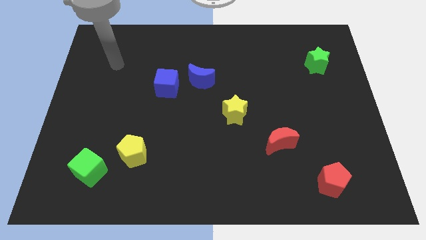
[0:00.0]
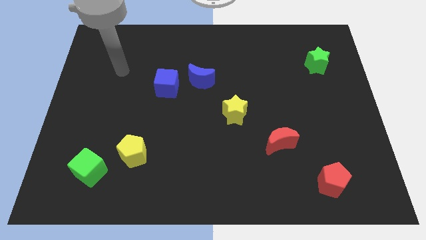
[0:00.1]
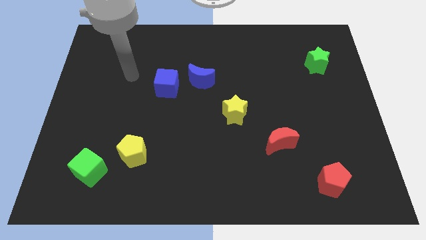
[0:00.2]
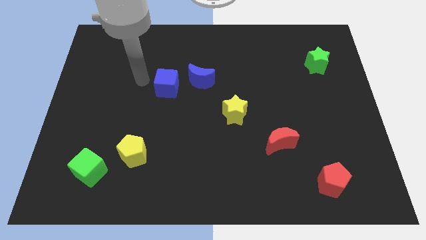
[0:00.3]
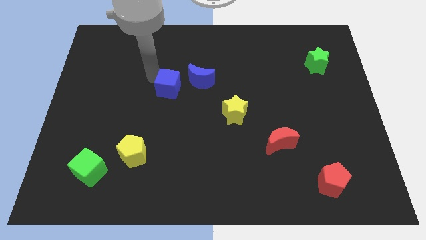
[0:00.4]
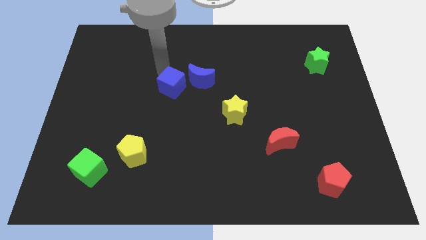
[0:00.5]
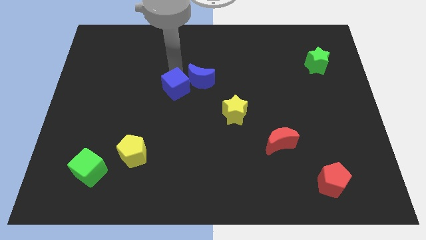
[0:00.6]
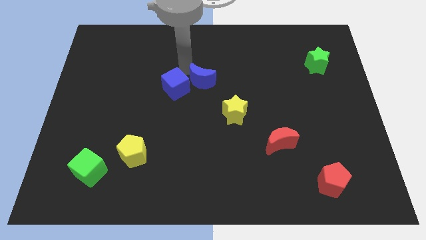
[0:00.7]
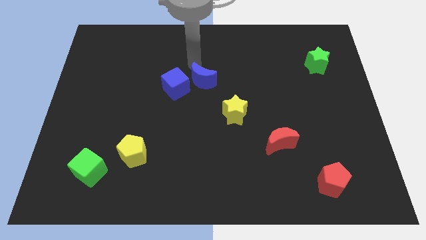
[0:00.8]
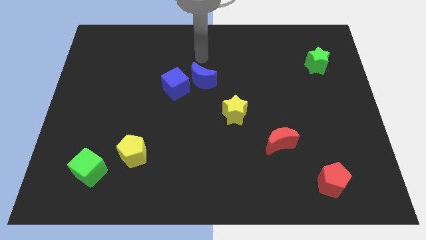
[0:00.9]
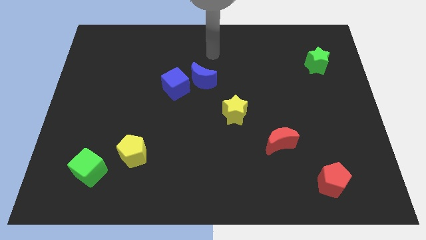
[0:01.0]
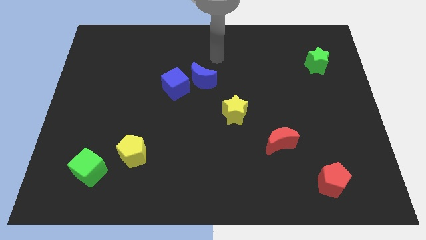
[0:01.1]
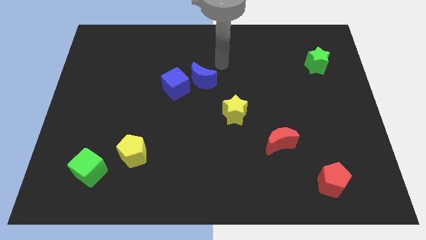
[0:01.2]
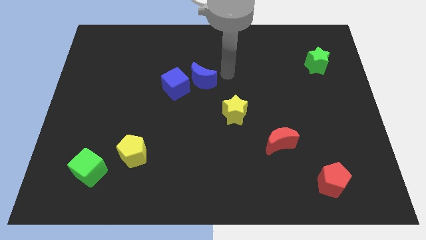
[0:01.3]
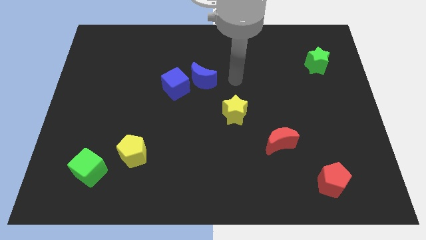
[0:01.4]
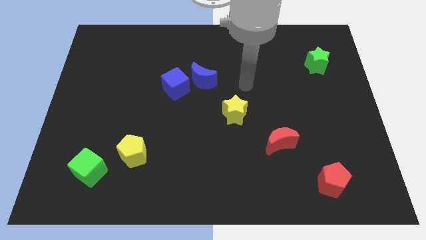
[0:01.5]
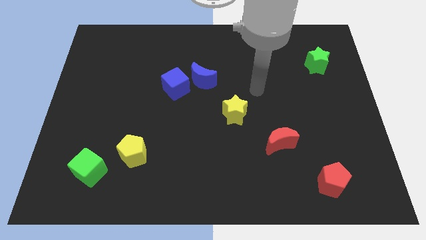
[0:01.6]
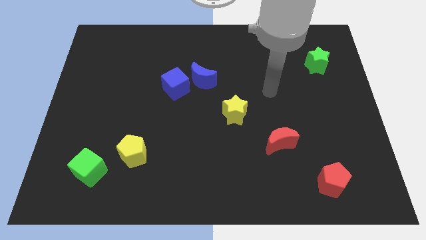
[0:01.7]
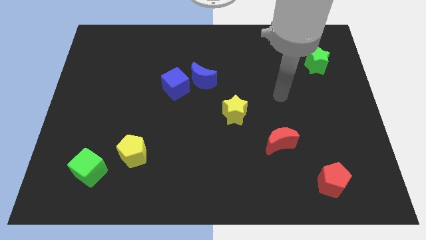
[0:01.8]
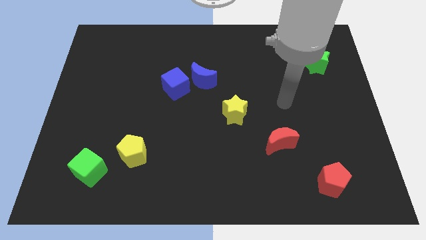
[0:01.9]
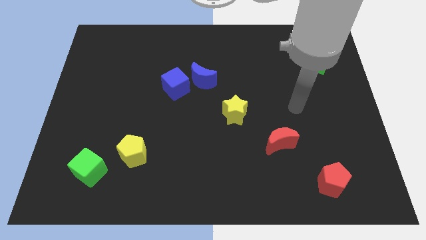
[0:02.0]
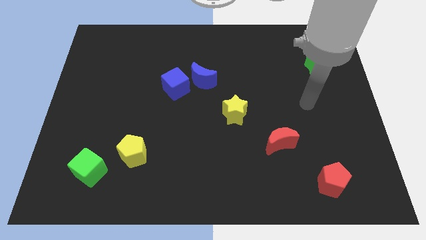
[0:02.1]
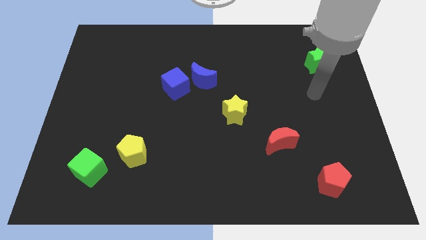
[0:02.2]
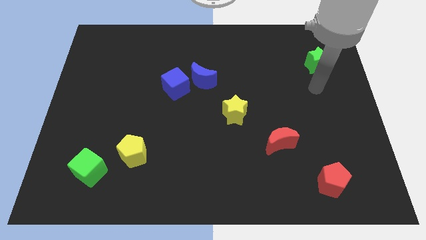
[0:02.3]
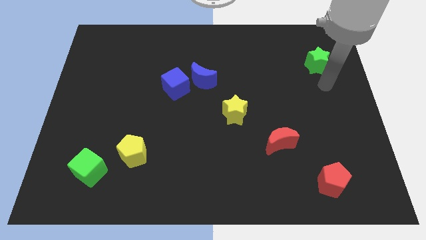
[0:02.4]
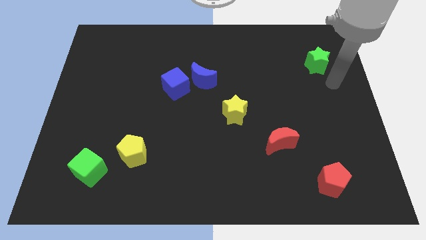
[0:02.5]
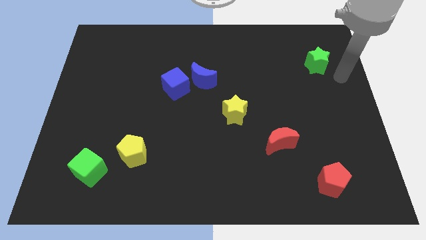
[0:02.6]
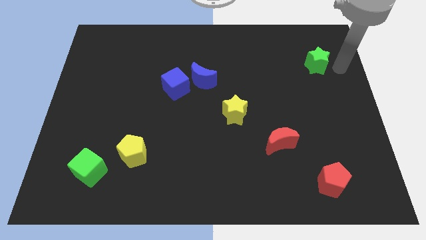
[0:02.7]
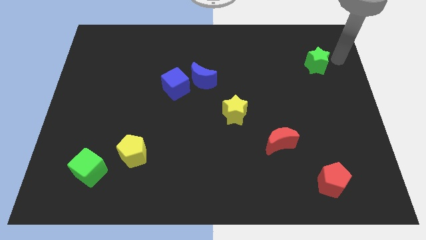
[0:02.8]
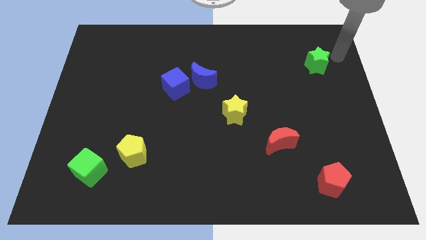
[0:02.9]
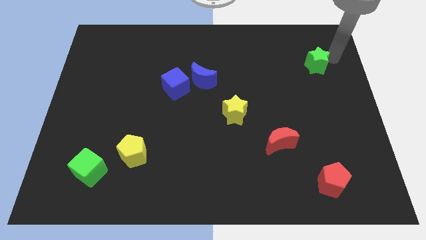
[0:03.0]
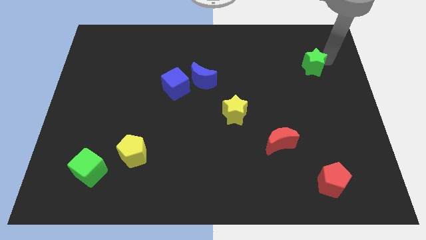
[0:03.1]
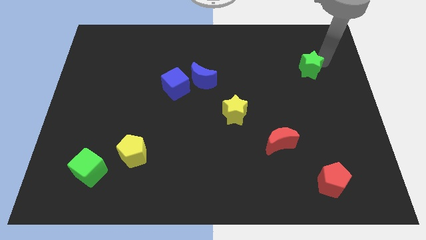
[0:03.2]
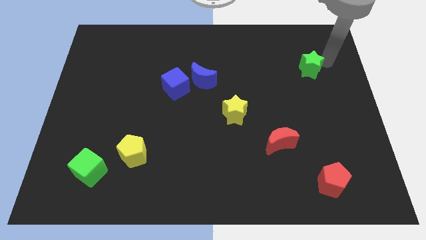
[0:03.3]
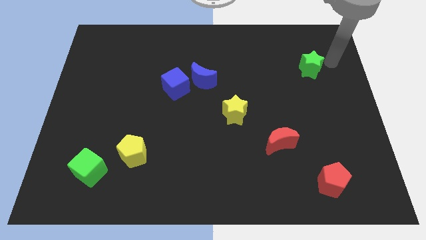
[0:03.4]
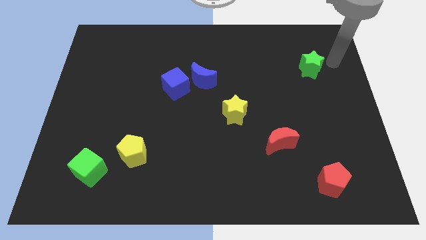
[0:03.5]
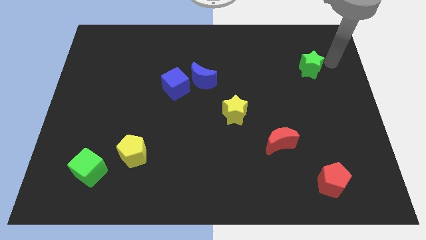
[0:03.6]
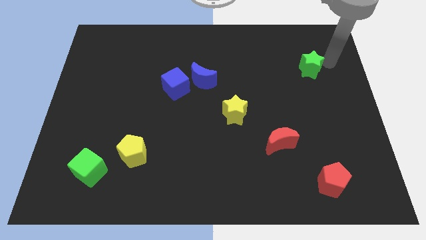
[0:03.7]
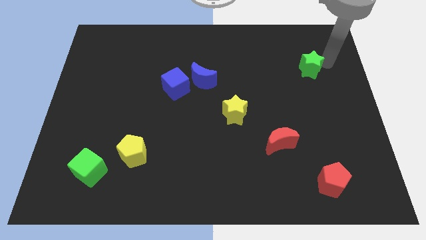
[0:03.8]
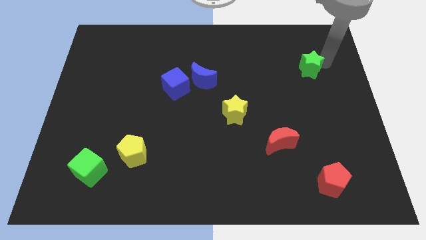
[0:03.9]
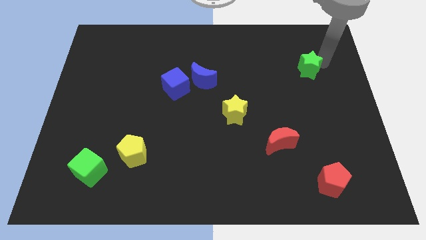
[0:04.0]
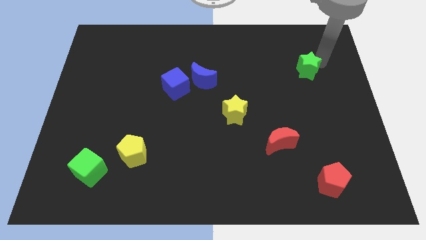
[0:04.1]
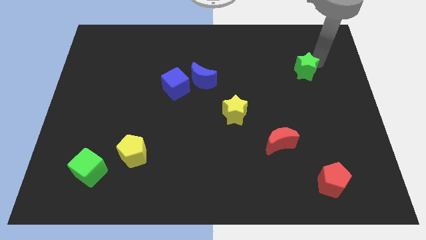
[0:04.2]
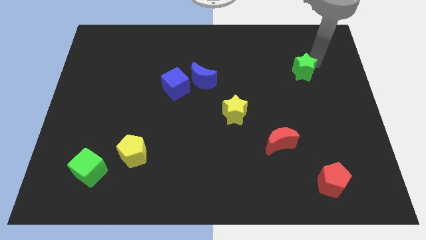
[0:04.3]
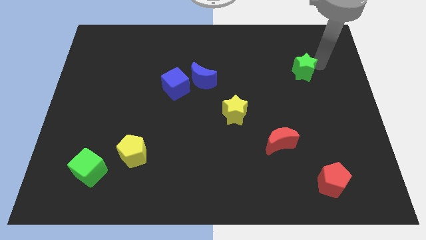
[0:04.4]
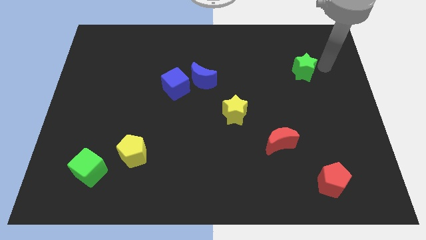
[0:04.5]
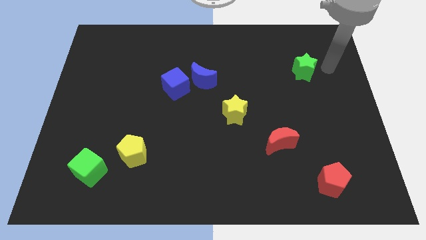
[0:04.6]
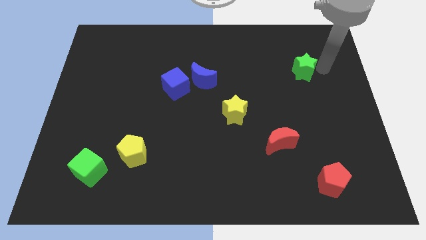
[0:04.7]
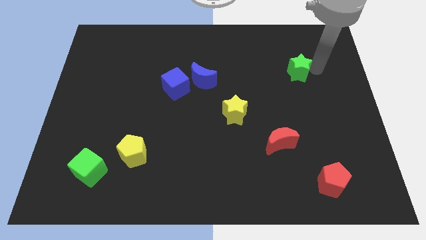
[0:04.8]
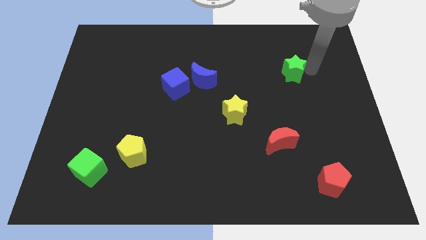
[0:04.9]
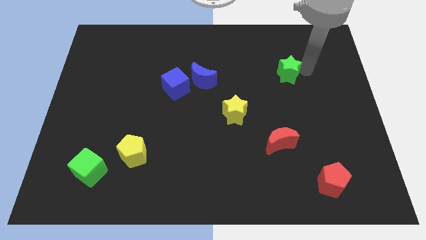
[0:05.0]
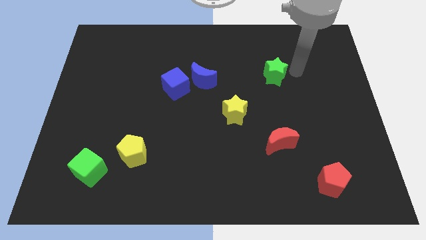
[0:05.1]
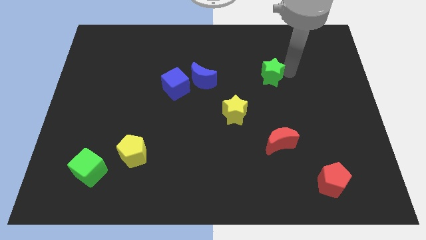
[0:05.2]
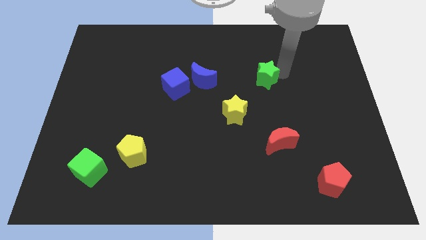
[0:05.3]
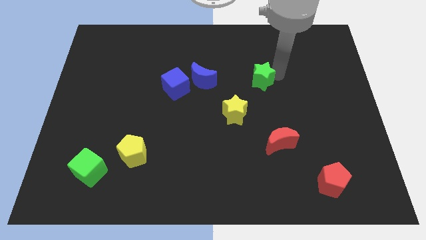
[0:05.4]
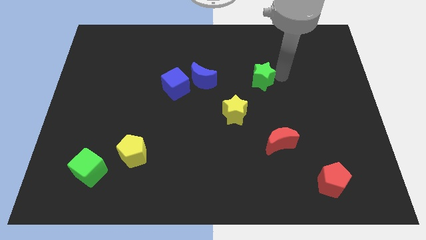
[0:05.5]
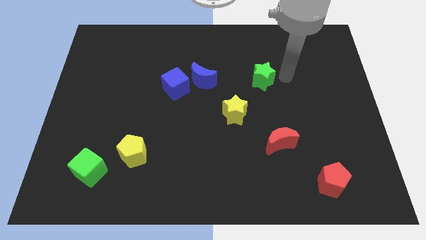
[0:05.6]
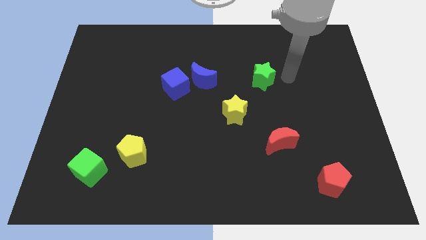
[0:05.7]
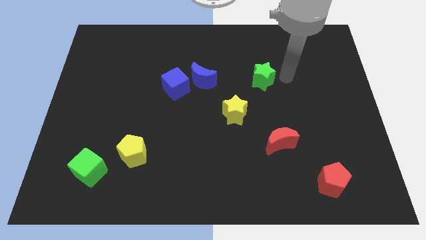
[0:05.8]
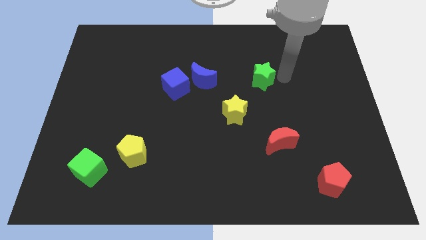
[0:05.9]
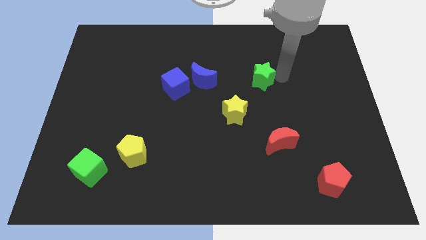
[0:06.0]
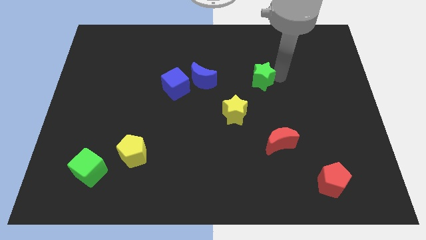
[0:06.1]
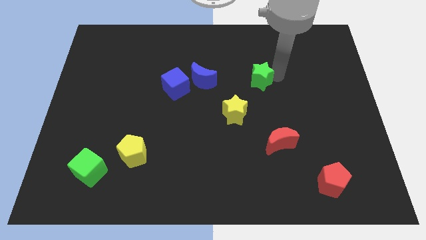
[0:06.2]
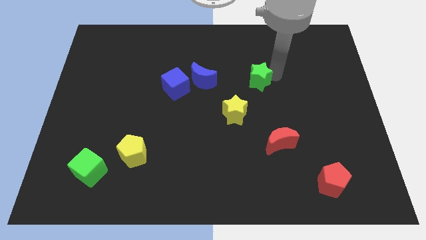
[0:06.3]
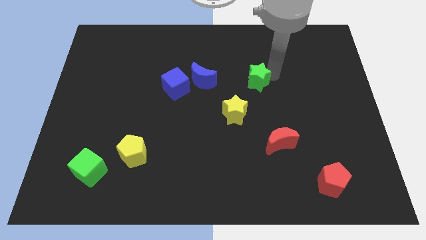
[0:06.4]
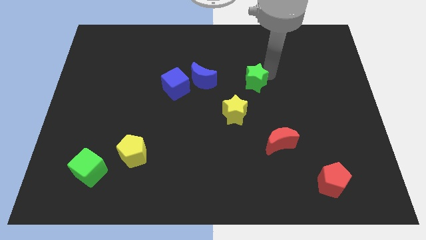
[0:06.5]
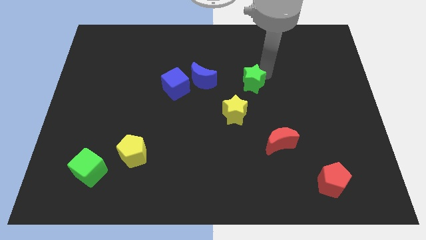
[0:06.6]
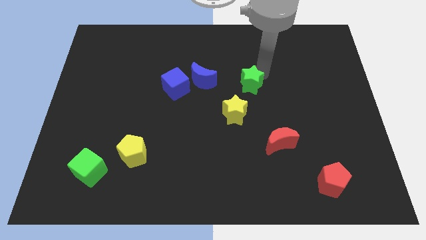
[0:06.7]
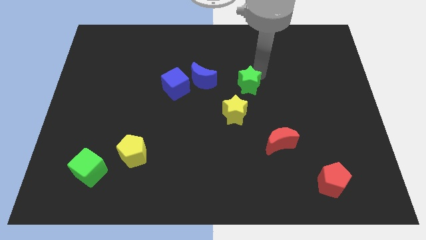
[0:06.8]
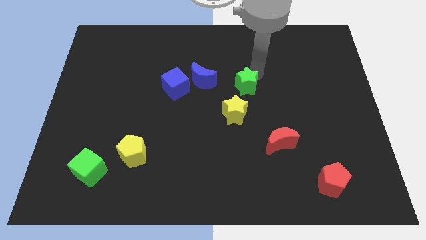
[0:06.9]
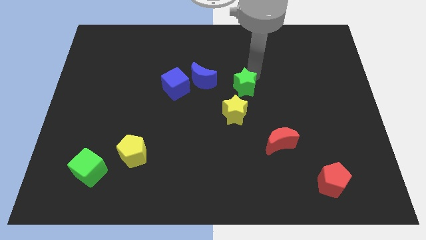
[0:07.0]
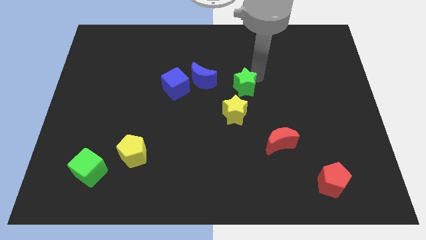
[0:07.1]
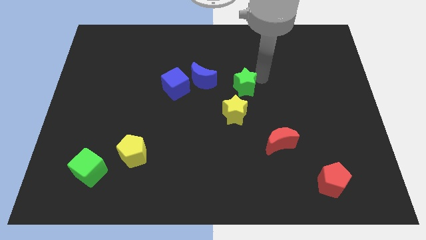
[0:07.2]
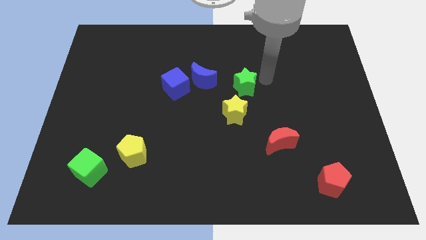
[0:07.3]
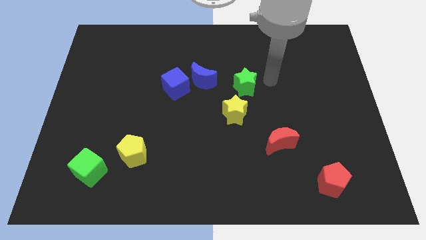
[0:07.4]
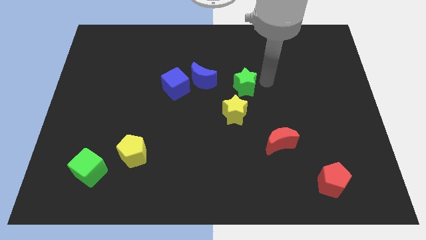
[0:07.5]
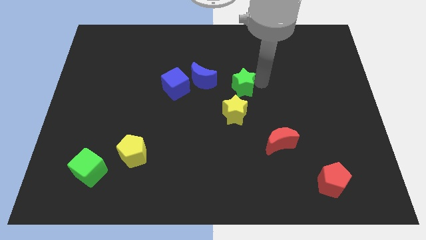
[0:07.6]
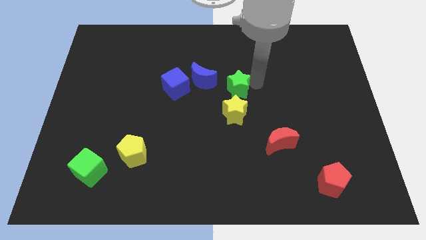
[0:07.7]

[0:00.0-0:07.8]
move the green star to the right side of the blue cube

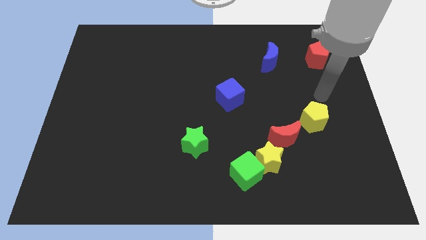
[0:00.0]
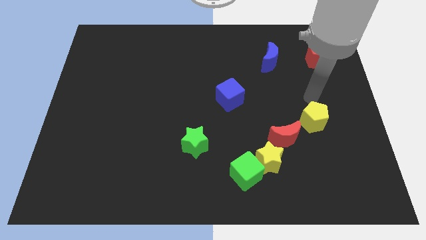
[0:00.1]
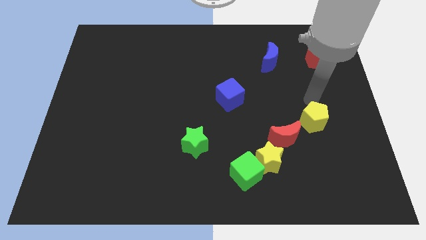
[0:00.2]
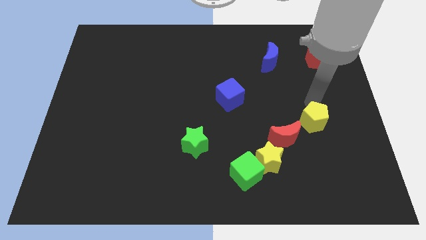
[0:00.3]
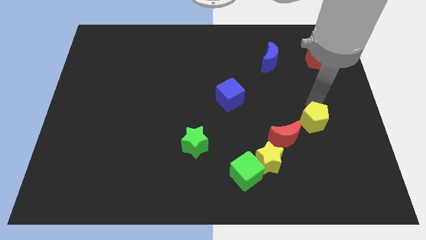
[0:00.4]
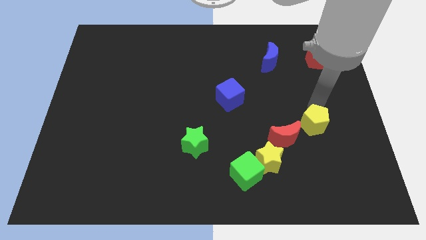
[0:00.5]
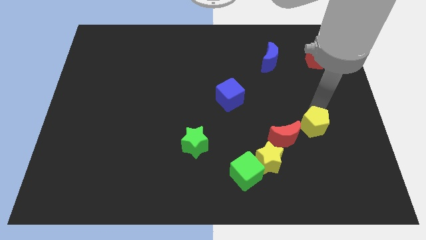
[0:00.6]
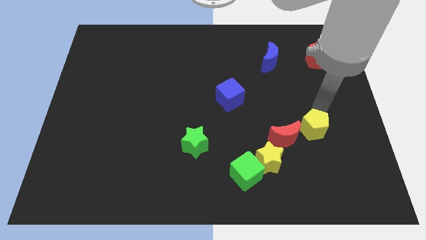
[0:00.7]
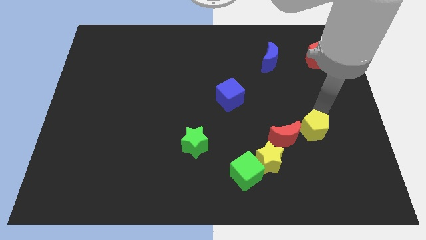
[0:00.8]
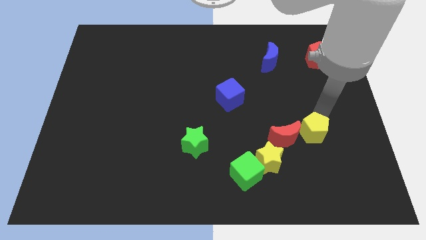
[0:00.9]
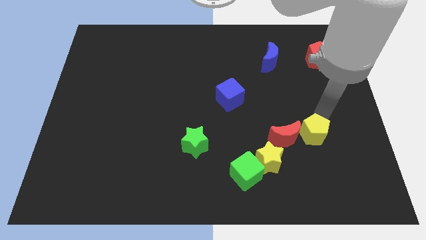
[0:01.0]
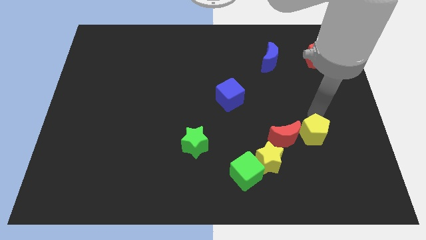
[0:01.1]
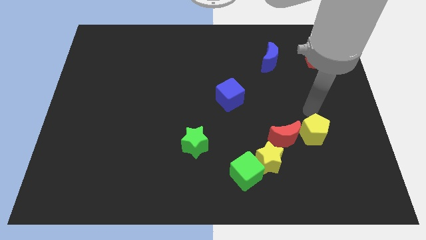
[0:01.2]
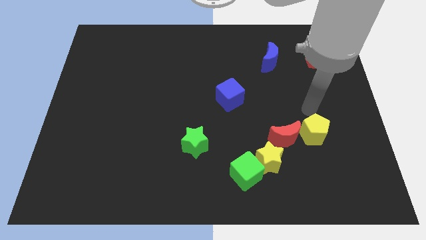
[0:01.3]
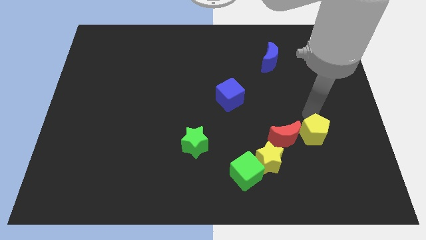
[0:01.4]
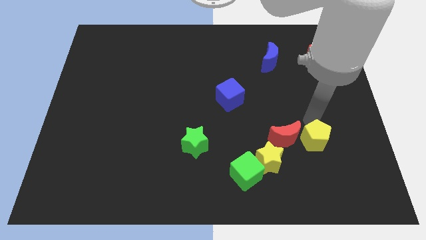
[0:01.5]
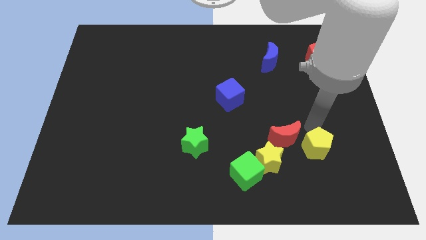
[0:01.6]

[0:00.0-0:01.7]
put the yellow pentagon to the right side of the yellow star
